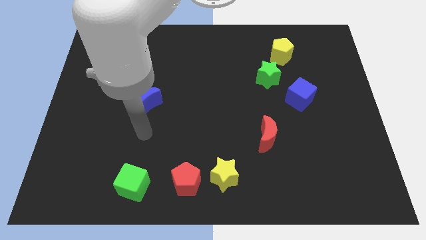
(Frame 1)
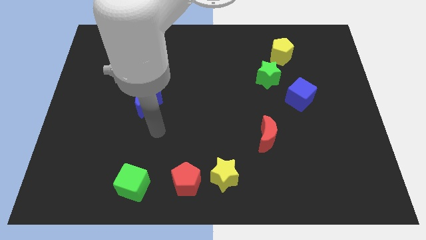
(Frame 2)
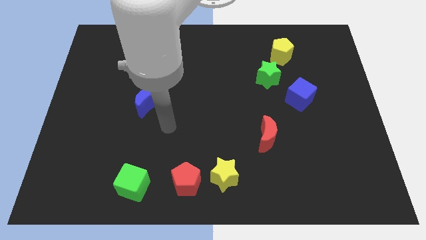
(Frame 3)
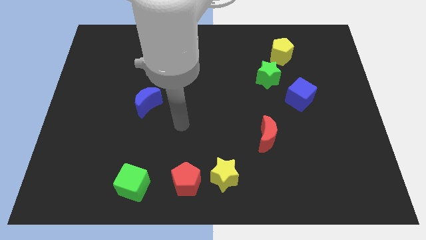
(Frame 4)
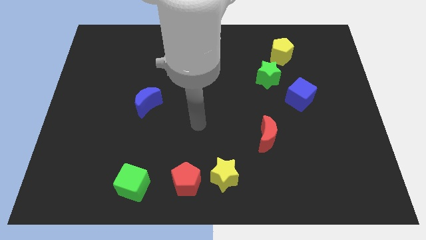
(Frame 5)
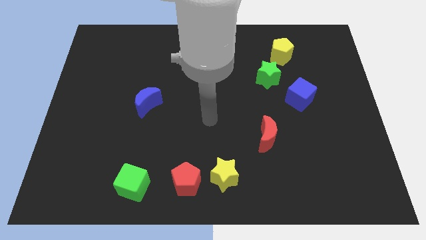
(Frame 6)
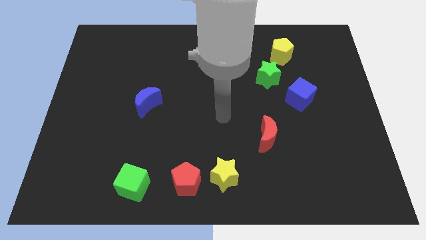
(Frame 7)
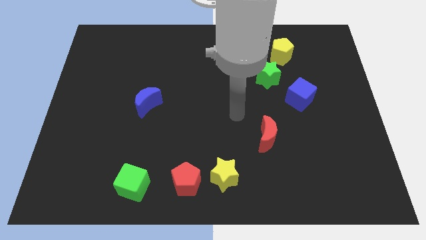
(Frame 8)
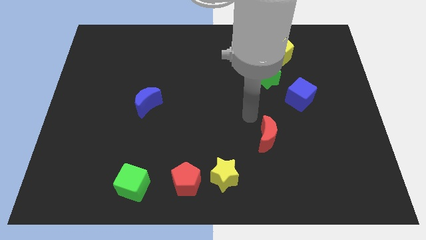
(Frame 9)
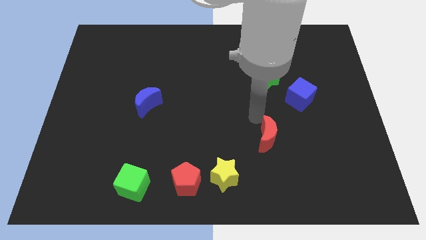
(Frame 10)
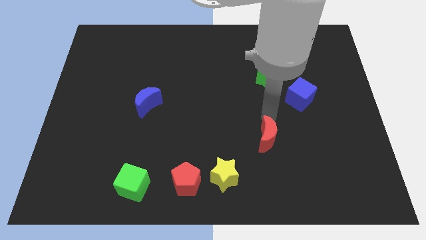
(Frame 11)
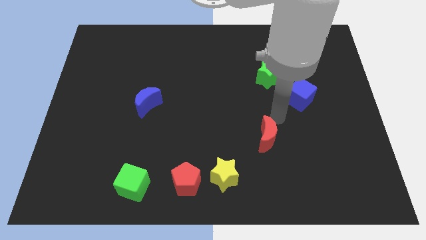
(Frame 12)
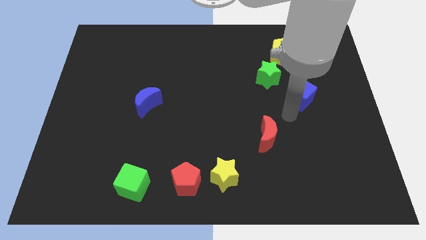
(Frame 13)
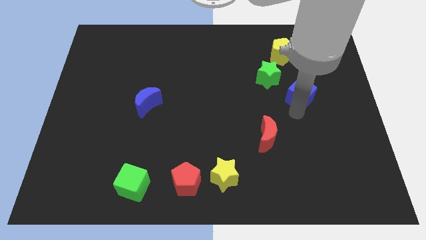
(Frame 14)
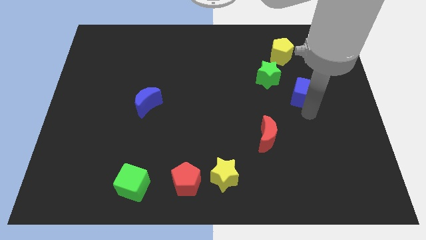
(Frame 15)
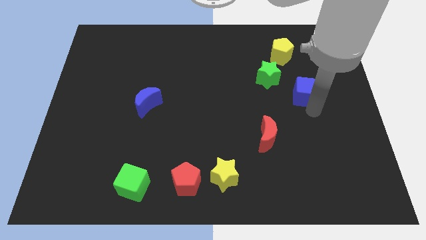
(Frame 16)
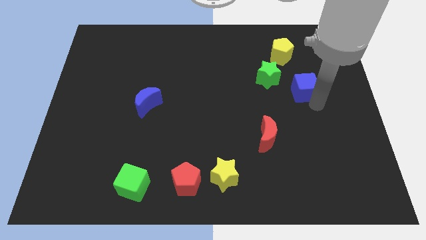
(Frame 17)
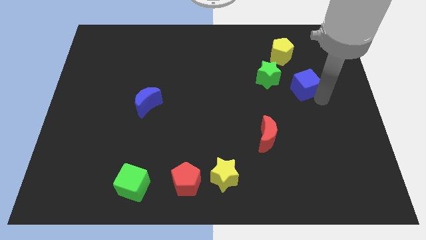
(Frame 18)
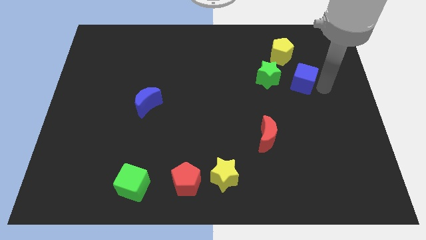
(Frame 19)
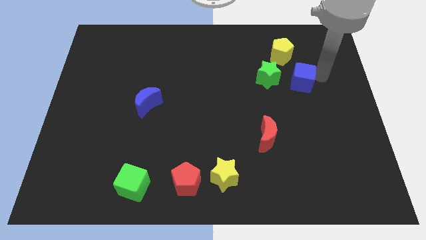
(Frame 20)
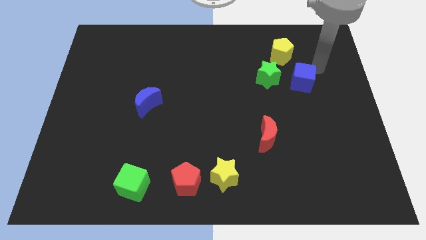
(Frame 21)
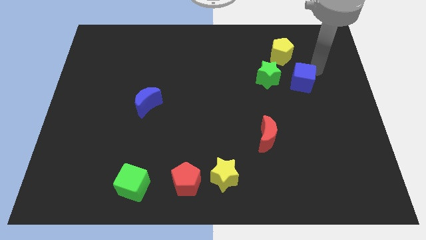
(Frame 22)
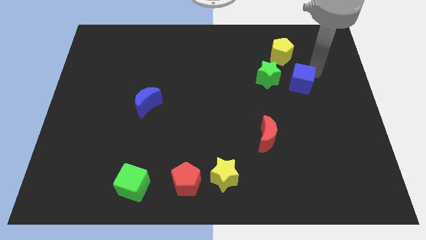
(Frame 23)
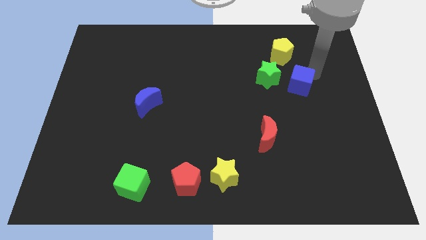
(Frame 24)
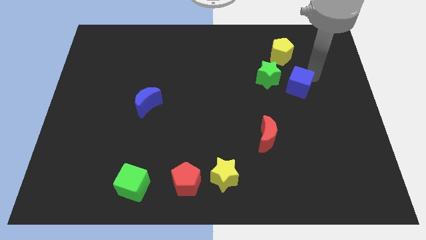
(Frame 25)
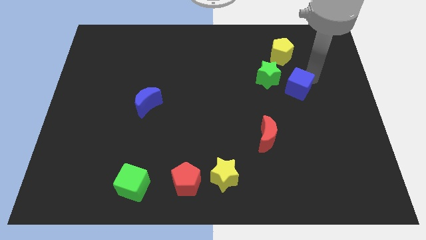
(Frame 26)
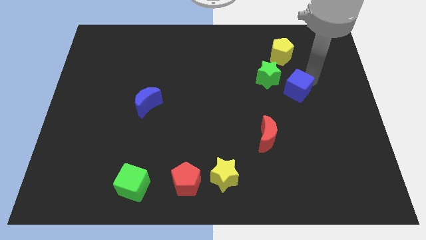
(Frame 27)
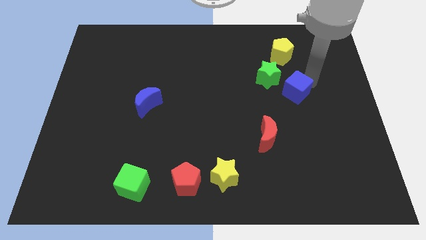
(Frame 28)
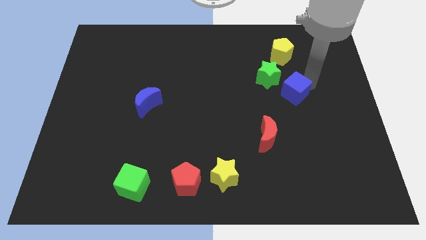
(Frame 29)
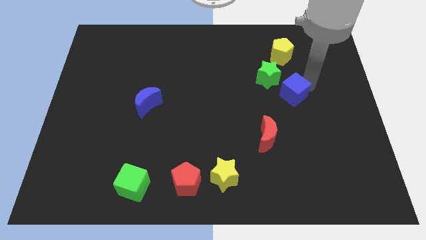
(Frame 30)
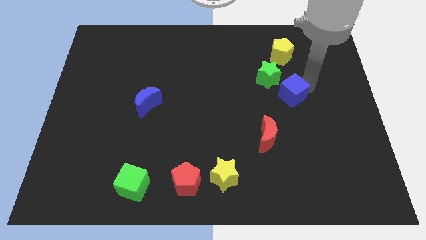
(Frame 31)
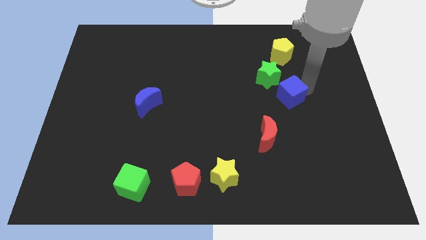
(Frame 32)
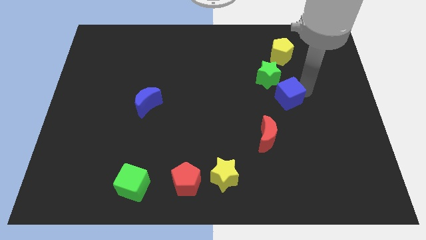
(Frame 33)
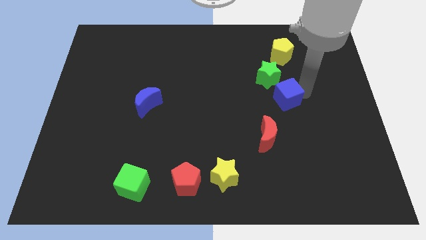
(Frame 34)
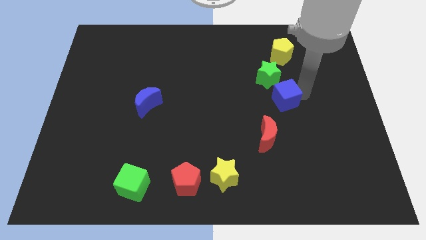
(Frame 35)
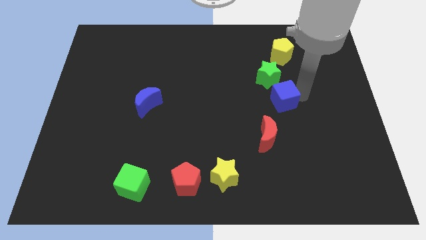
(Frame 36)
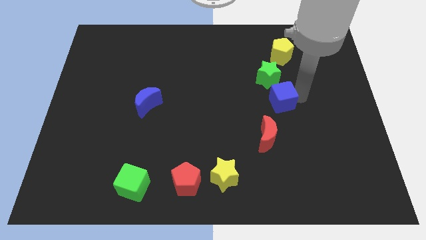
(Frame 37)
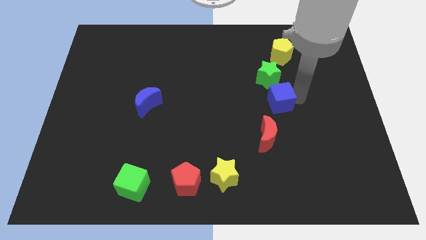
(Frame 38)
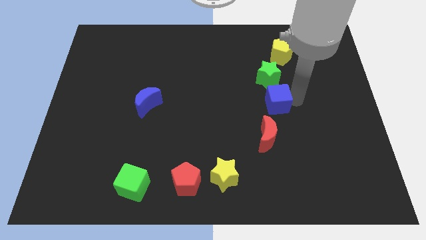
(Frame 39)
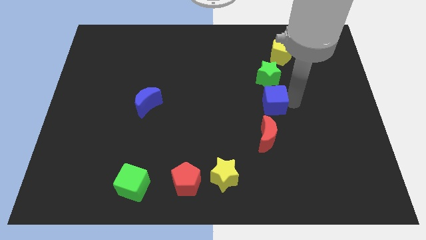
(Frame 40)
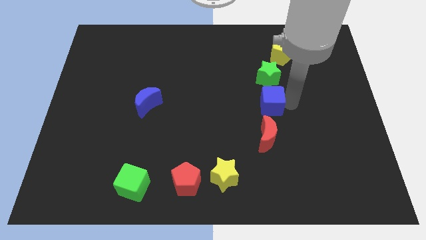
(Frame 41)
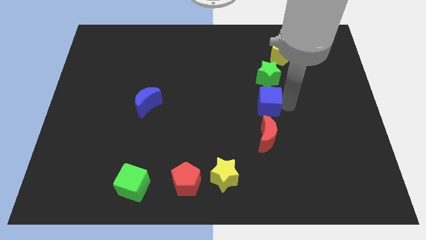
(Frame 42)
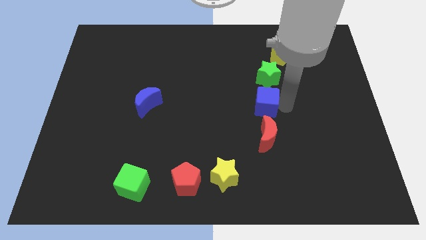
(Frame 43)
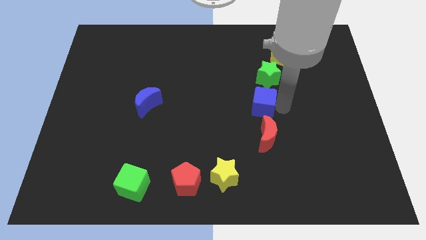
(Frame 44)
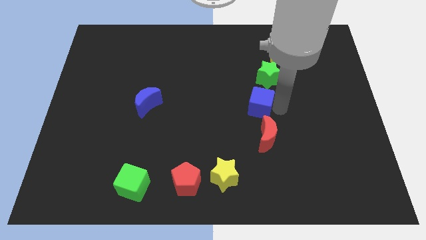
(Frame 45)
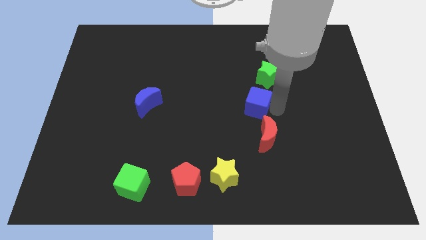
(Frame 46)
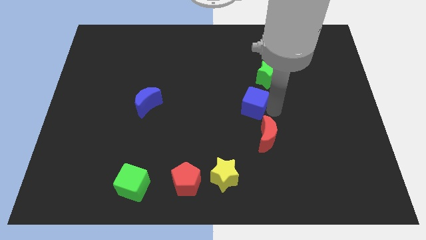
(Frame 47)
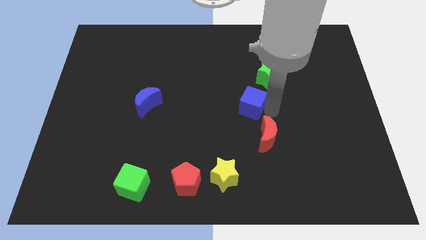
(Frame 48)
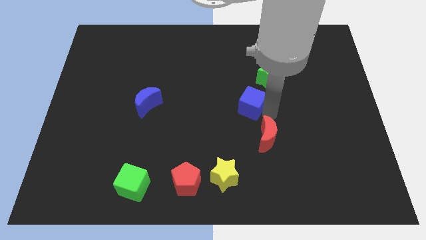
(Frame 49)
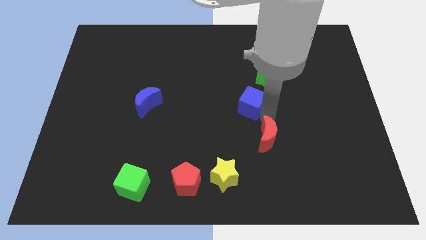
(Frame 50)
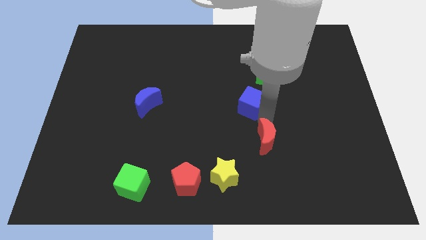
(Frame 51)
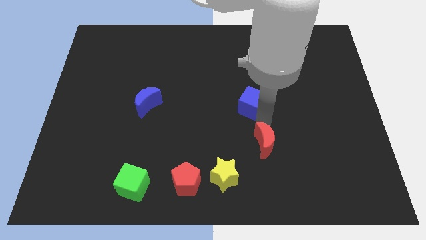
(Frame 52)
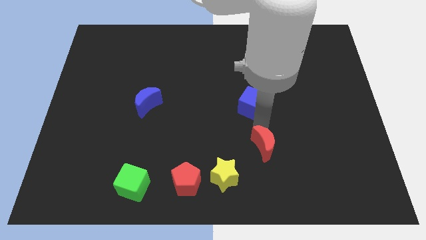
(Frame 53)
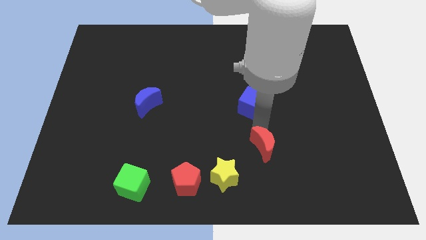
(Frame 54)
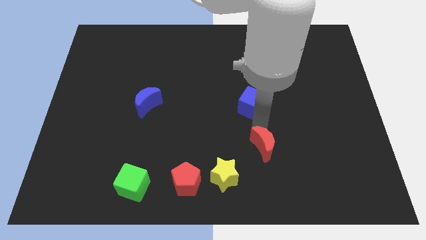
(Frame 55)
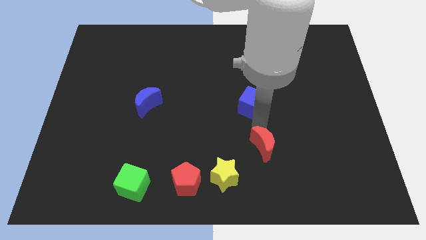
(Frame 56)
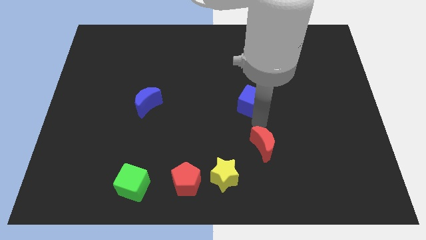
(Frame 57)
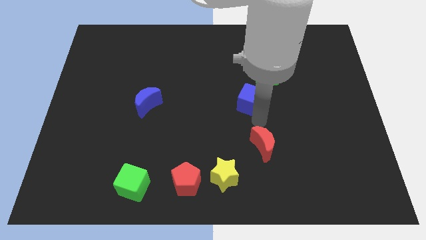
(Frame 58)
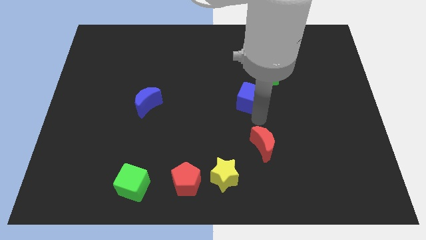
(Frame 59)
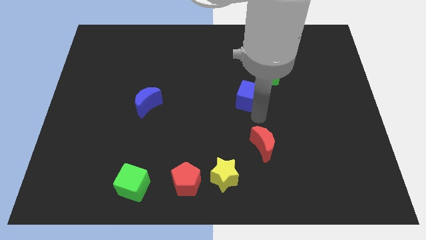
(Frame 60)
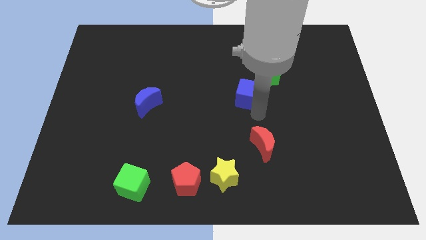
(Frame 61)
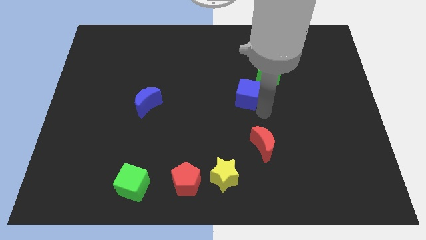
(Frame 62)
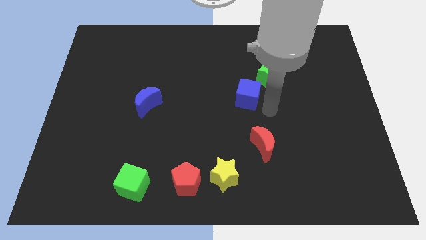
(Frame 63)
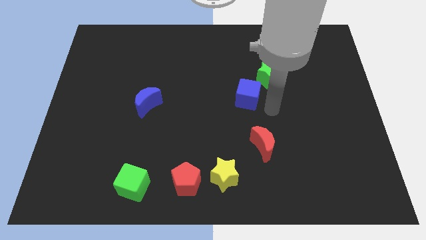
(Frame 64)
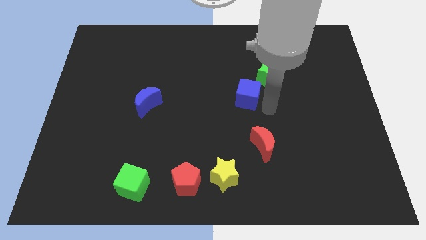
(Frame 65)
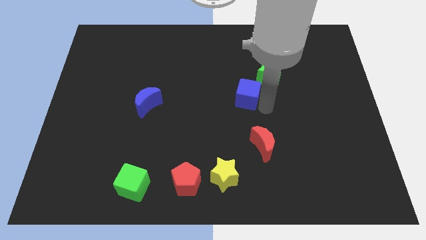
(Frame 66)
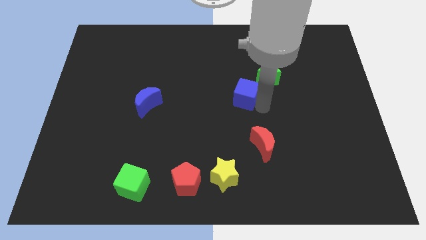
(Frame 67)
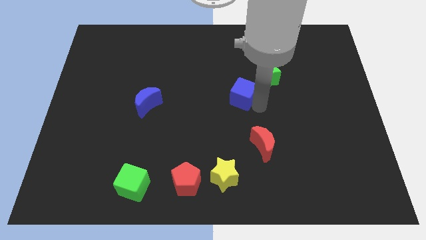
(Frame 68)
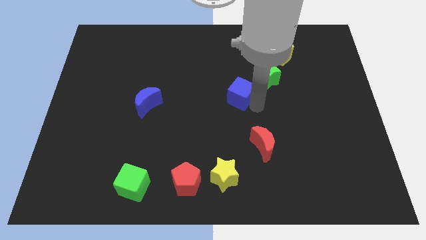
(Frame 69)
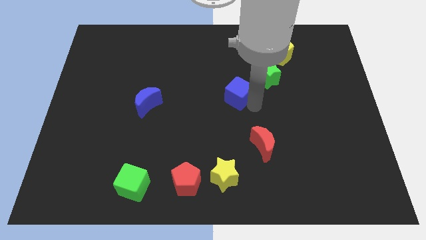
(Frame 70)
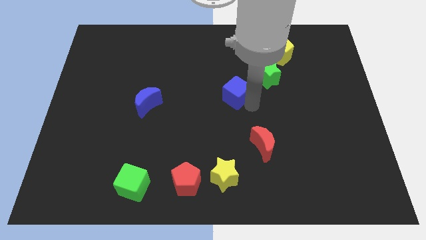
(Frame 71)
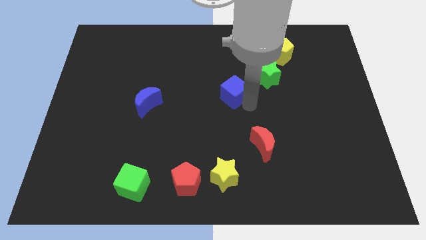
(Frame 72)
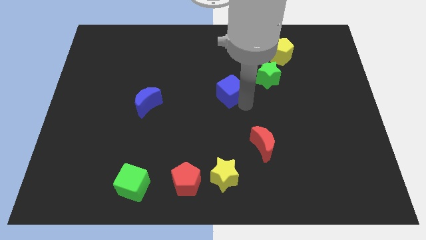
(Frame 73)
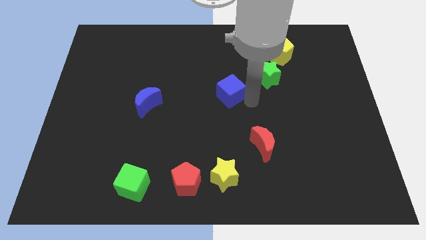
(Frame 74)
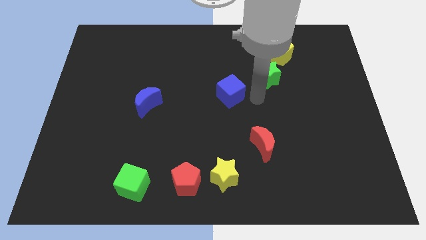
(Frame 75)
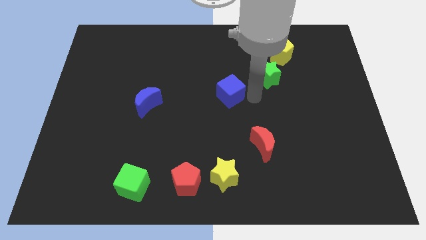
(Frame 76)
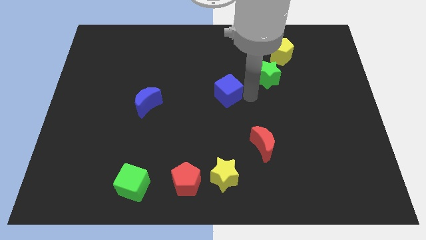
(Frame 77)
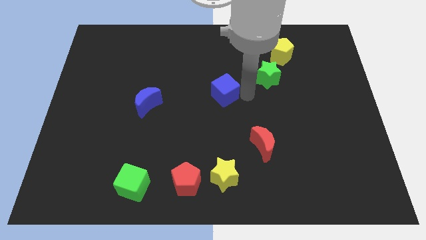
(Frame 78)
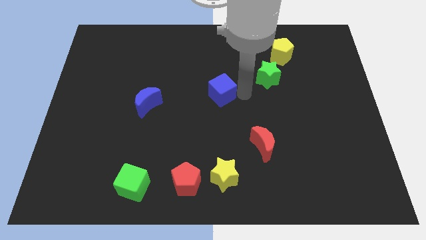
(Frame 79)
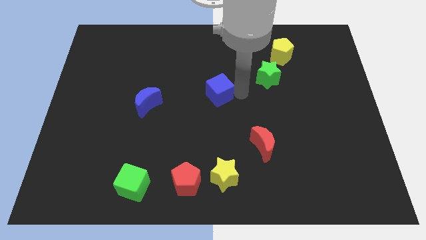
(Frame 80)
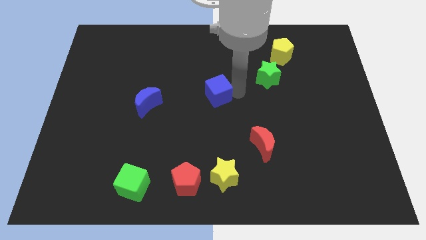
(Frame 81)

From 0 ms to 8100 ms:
push the blue cube to the left
